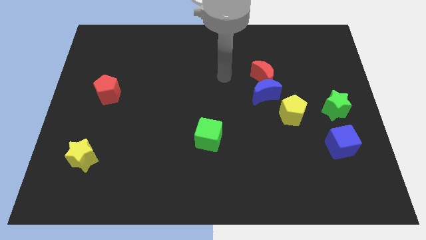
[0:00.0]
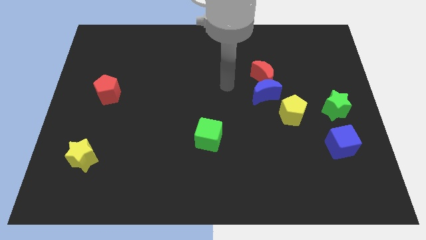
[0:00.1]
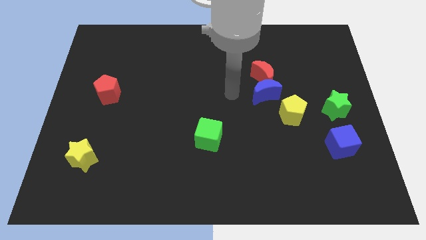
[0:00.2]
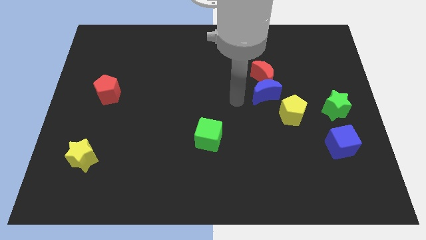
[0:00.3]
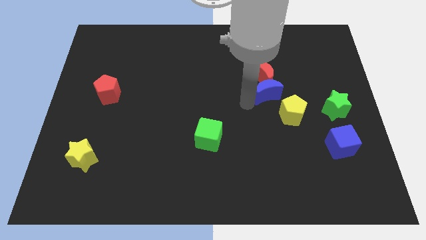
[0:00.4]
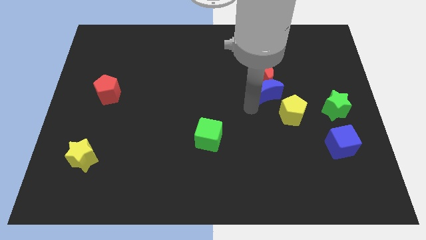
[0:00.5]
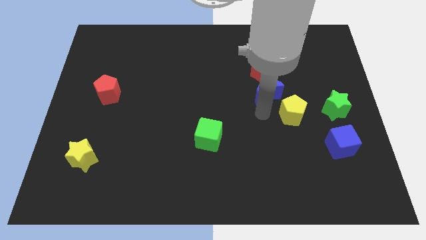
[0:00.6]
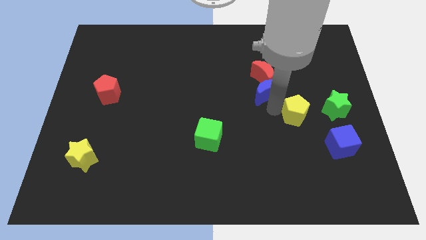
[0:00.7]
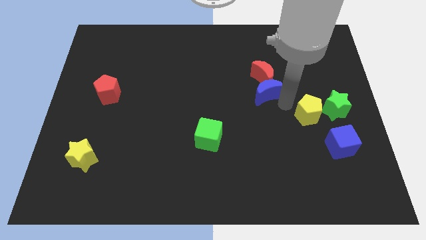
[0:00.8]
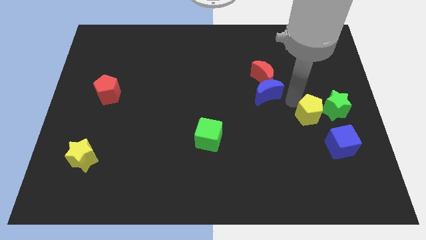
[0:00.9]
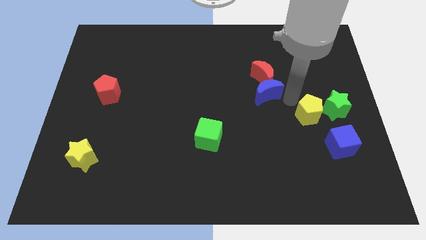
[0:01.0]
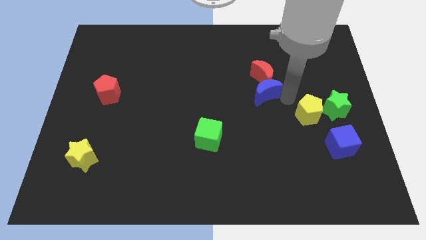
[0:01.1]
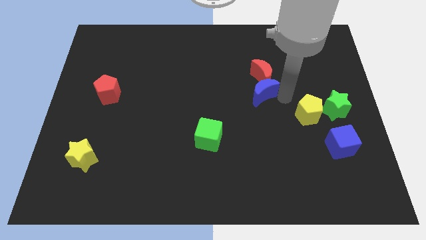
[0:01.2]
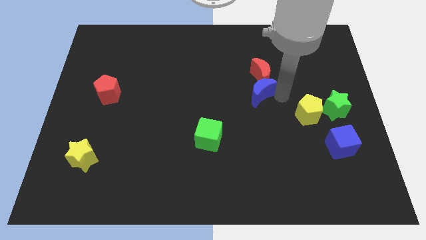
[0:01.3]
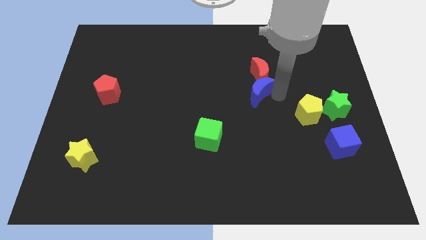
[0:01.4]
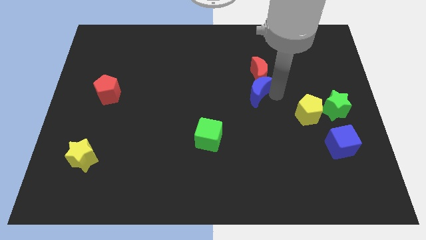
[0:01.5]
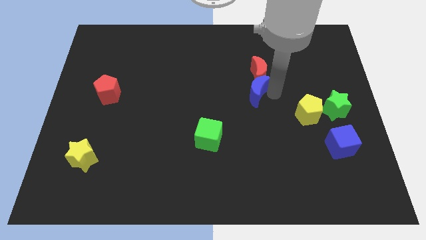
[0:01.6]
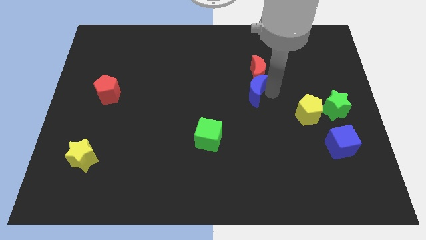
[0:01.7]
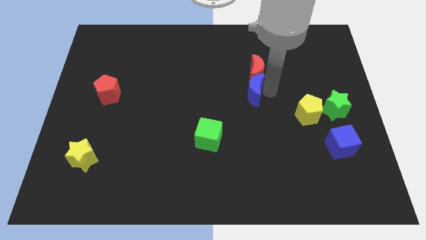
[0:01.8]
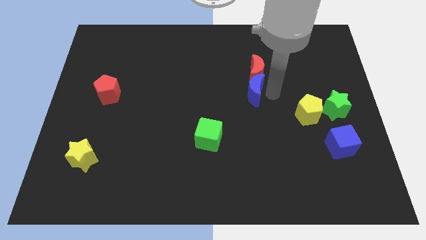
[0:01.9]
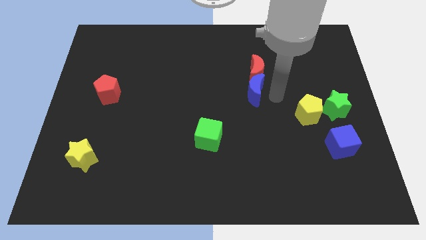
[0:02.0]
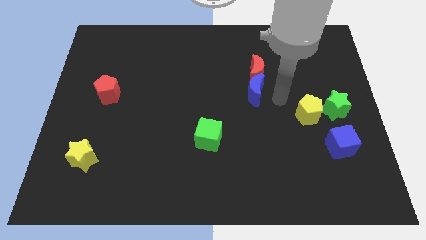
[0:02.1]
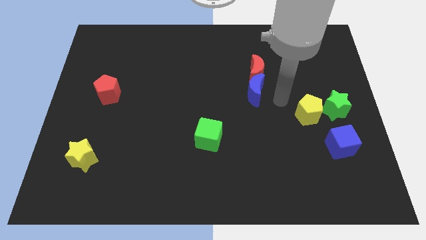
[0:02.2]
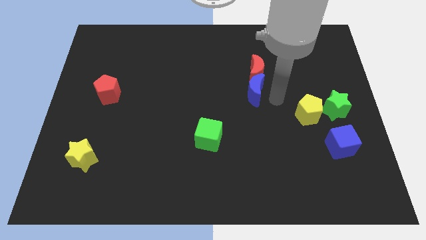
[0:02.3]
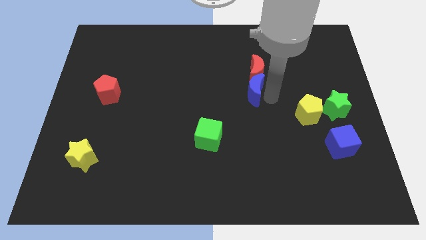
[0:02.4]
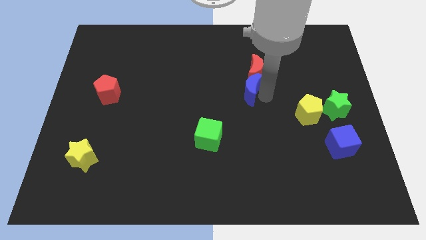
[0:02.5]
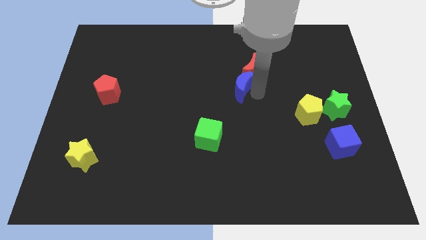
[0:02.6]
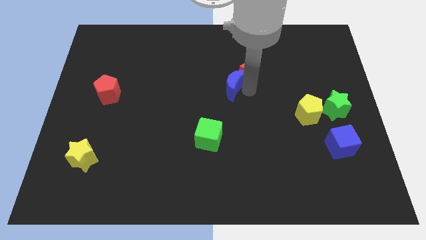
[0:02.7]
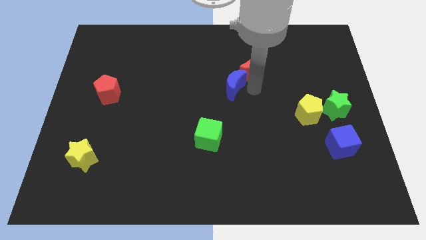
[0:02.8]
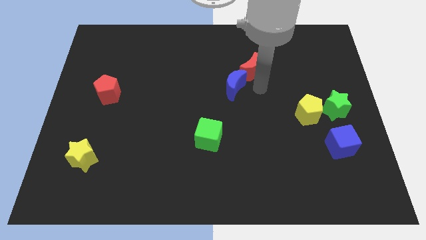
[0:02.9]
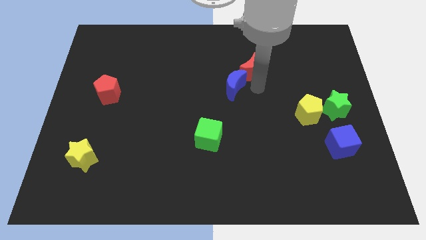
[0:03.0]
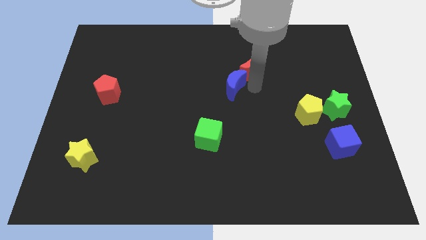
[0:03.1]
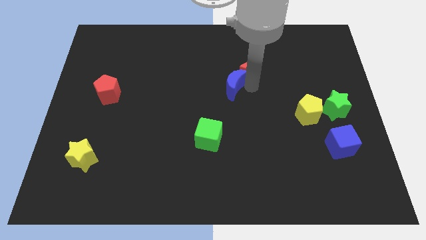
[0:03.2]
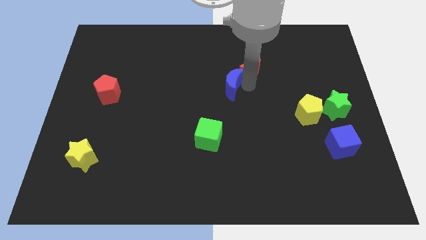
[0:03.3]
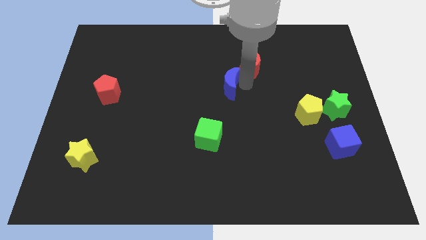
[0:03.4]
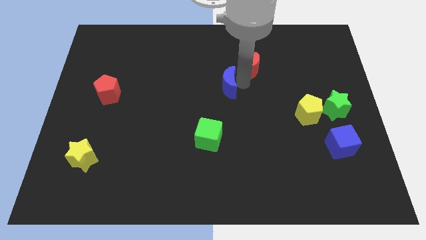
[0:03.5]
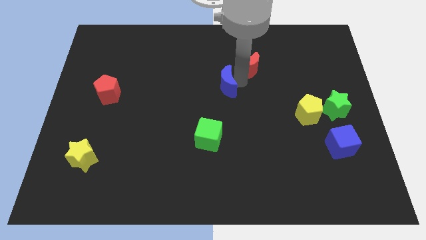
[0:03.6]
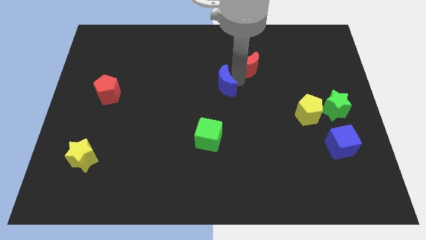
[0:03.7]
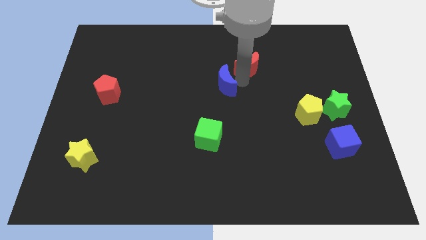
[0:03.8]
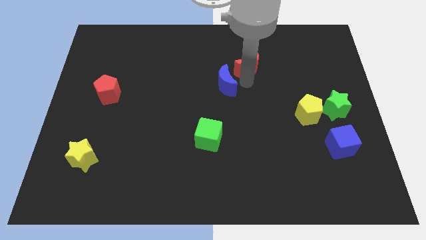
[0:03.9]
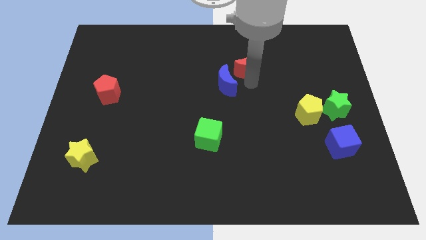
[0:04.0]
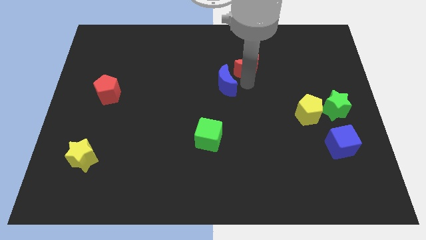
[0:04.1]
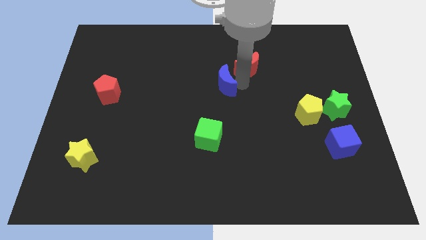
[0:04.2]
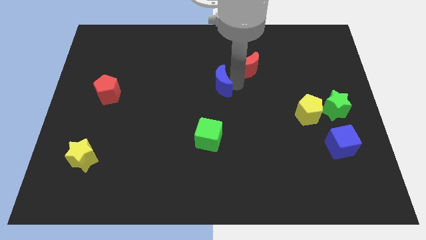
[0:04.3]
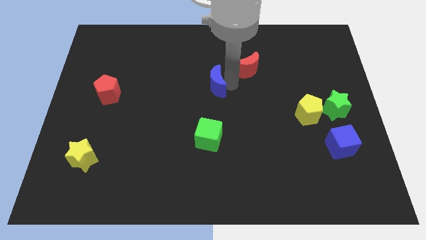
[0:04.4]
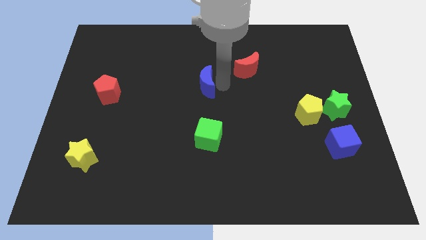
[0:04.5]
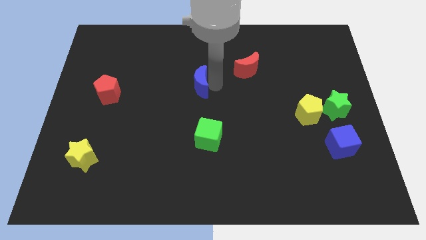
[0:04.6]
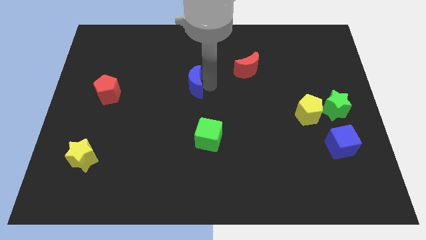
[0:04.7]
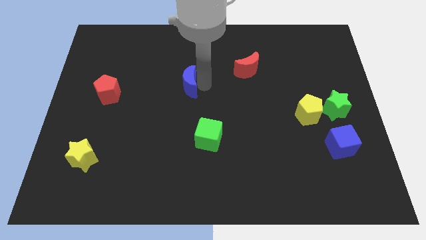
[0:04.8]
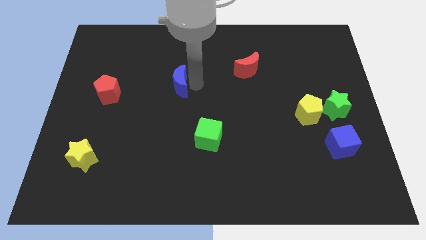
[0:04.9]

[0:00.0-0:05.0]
slide the blue moon left

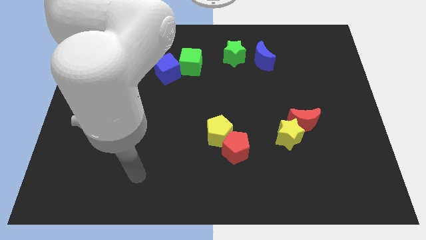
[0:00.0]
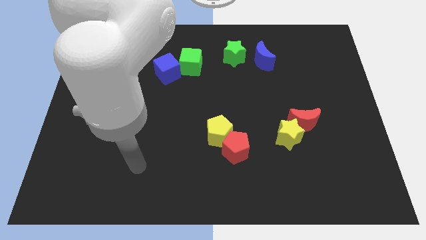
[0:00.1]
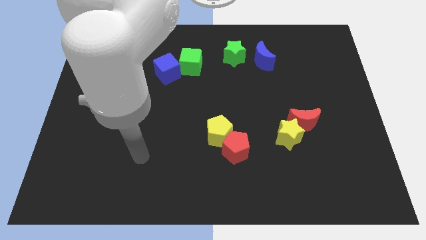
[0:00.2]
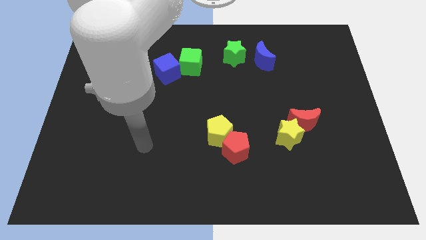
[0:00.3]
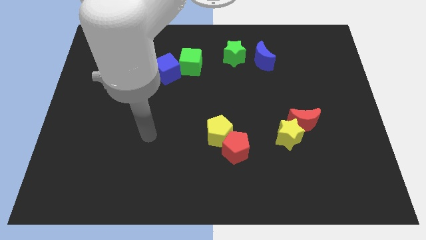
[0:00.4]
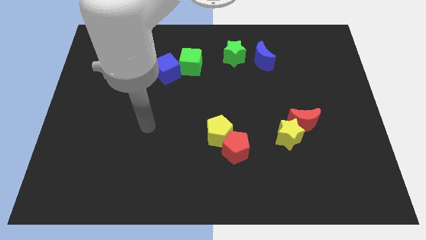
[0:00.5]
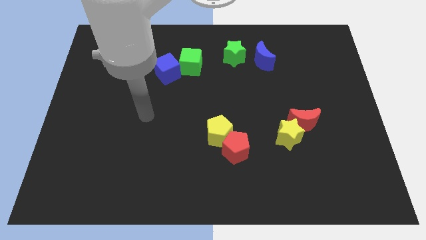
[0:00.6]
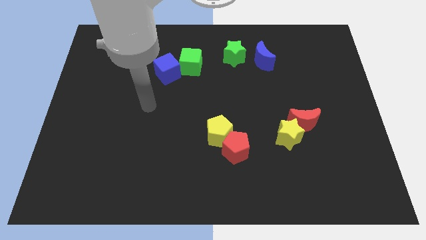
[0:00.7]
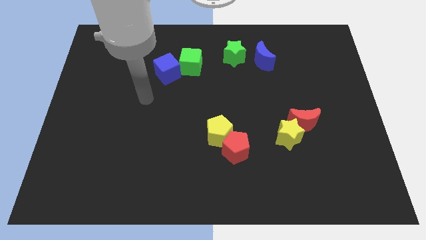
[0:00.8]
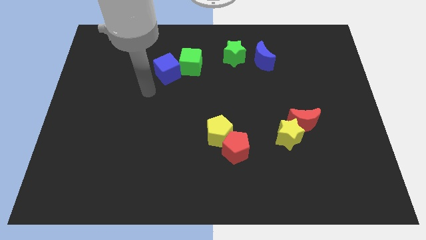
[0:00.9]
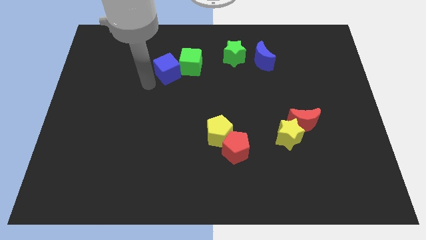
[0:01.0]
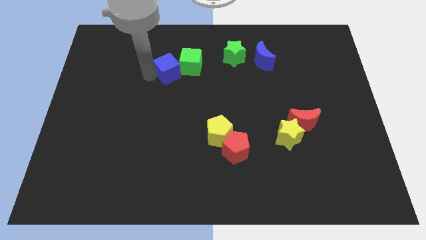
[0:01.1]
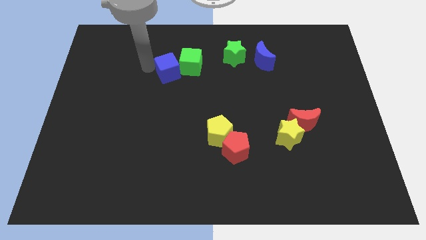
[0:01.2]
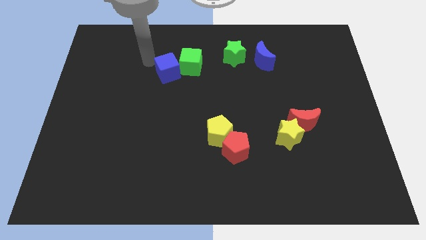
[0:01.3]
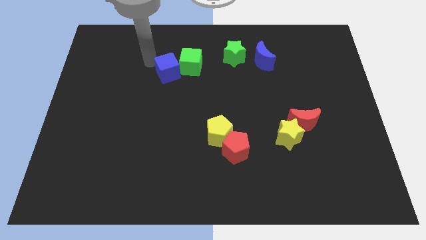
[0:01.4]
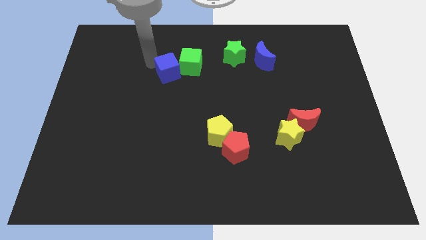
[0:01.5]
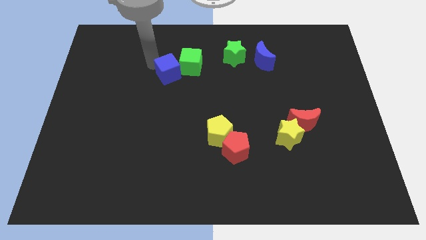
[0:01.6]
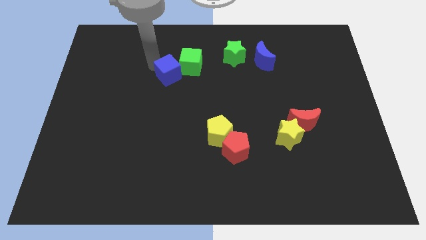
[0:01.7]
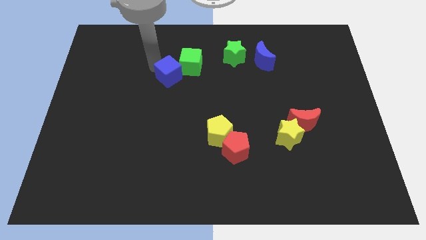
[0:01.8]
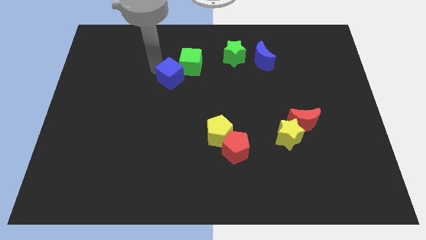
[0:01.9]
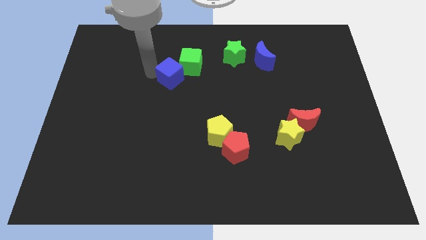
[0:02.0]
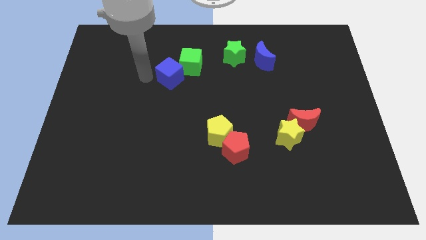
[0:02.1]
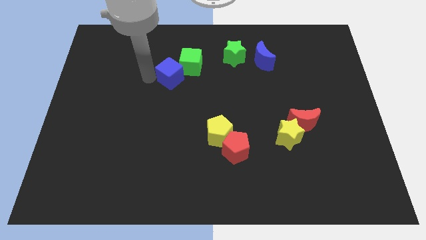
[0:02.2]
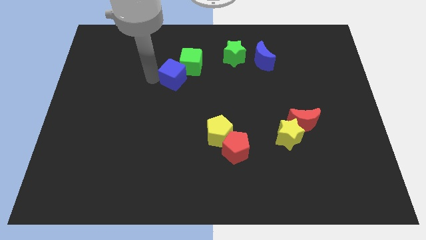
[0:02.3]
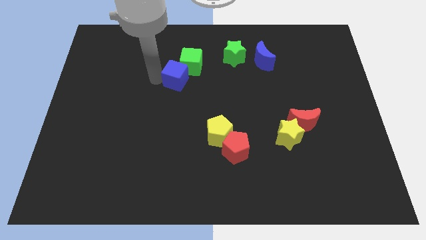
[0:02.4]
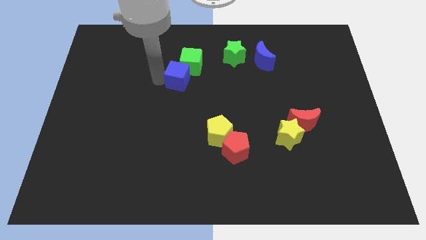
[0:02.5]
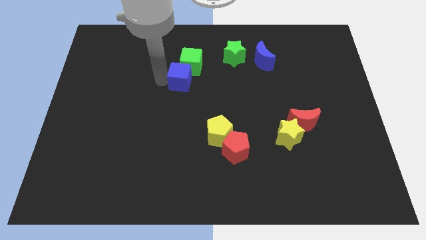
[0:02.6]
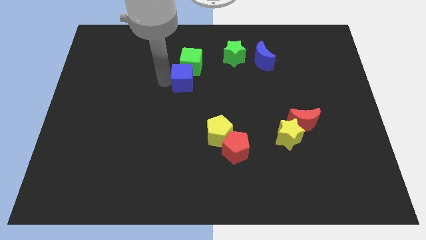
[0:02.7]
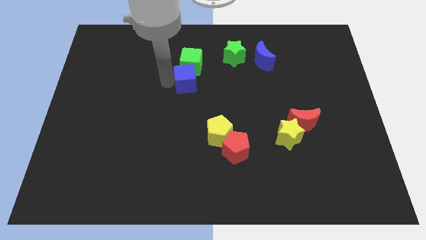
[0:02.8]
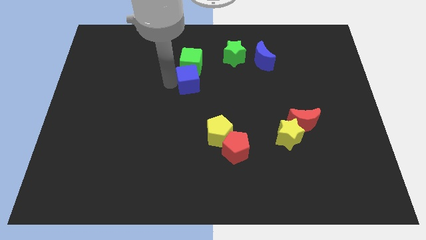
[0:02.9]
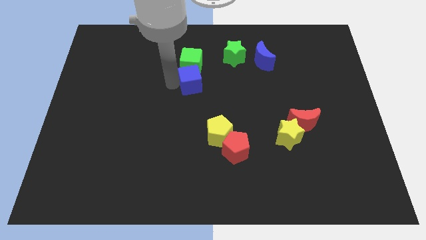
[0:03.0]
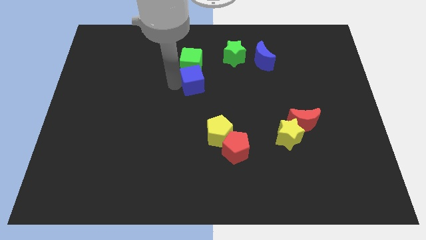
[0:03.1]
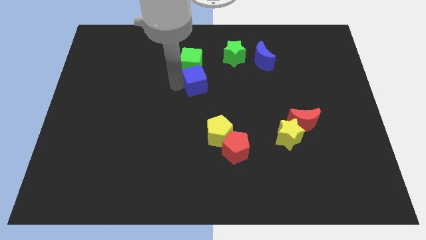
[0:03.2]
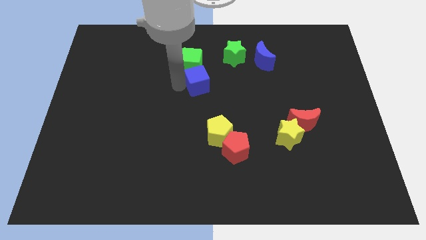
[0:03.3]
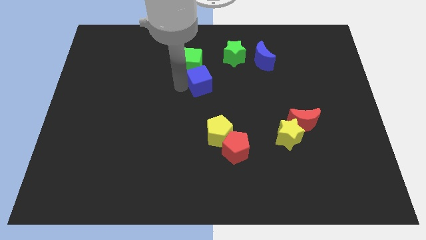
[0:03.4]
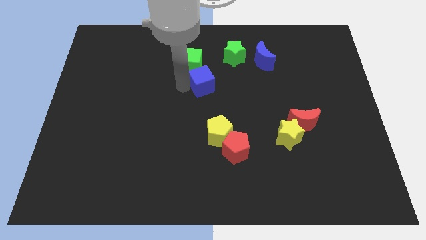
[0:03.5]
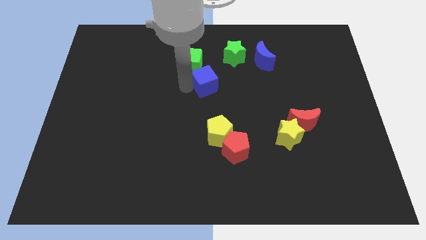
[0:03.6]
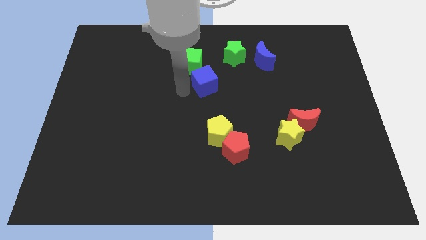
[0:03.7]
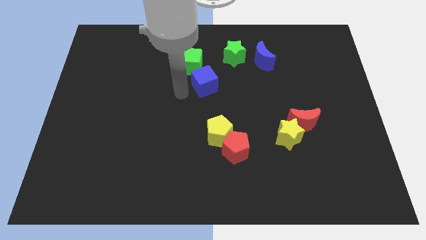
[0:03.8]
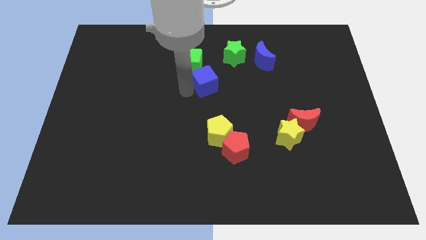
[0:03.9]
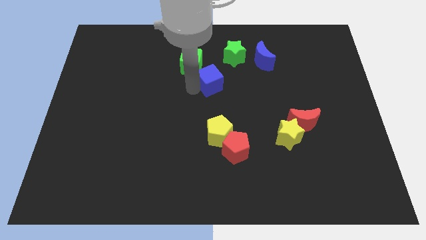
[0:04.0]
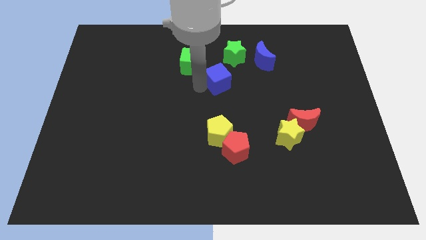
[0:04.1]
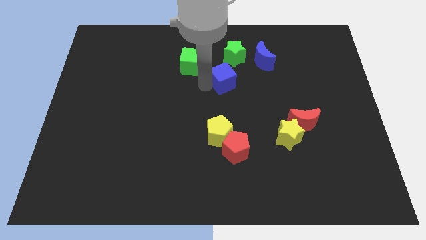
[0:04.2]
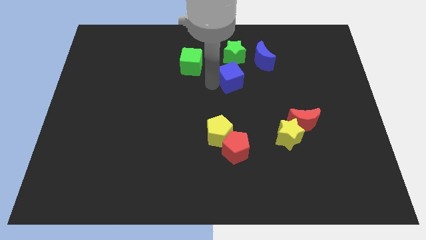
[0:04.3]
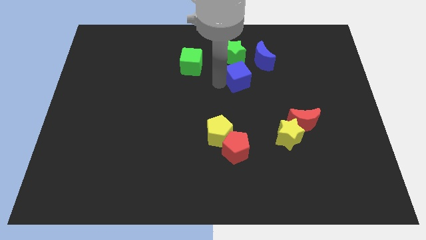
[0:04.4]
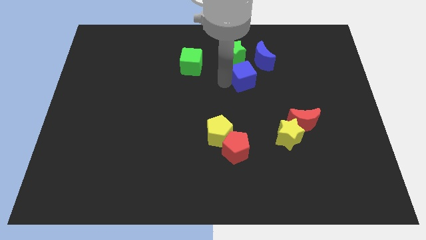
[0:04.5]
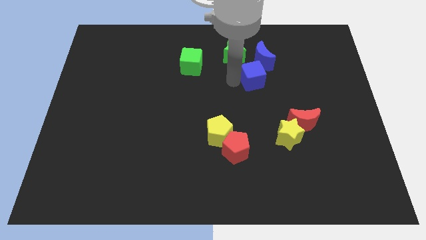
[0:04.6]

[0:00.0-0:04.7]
move the blue cube to the right
